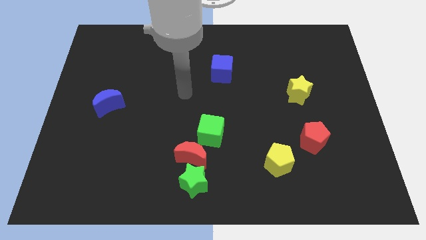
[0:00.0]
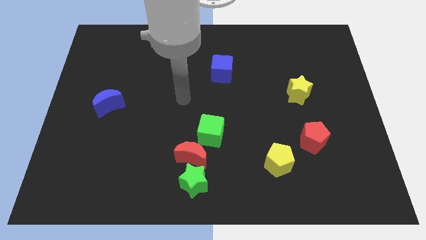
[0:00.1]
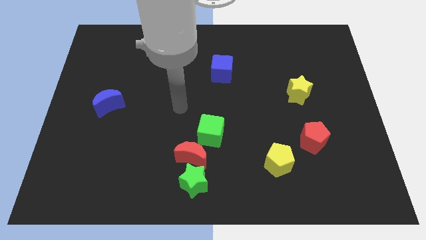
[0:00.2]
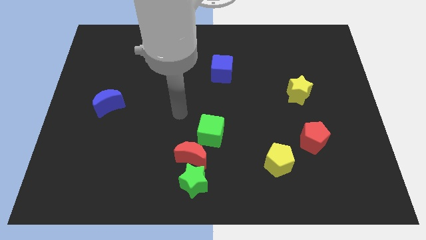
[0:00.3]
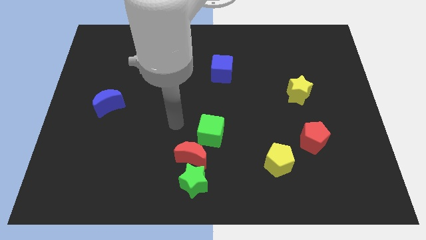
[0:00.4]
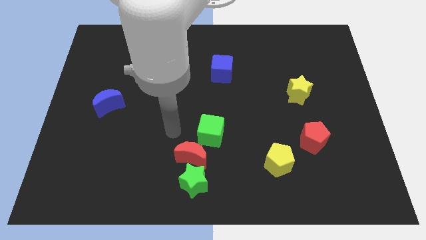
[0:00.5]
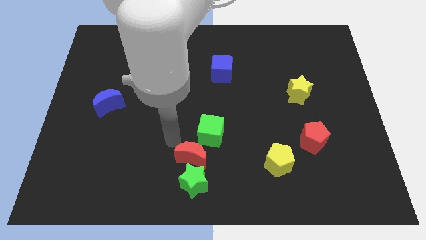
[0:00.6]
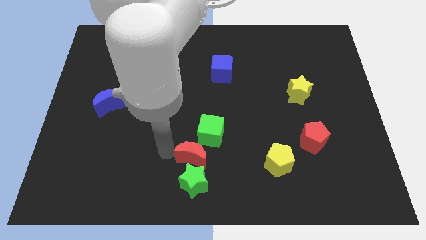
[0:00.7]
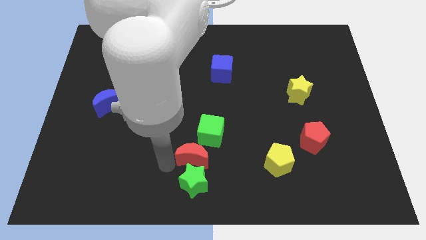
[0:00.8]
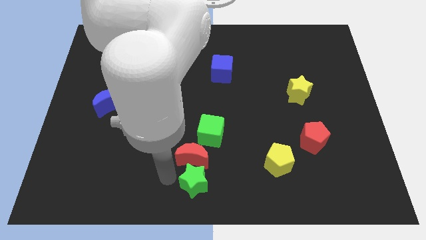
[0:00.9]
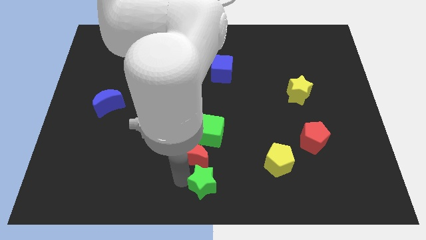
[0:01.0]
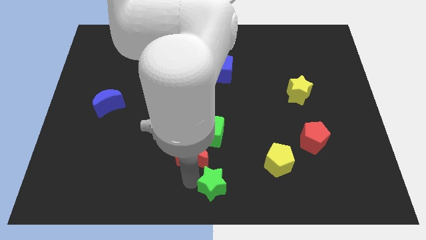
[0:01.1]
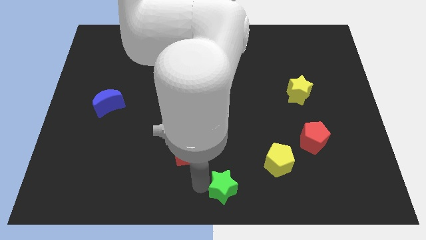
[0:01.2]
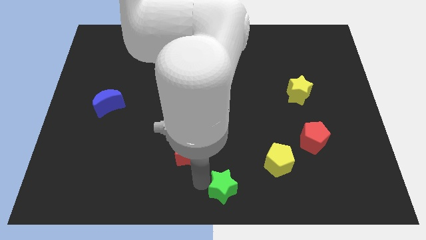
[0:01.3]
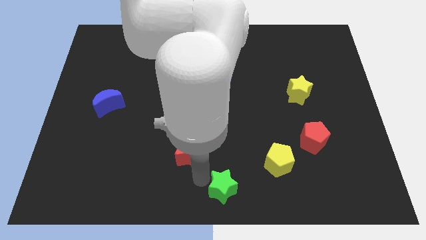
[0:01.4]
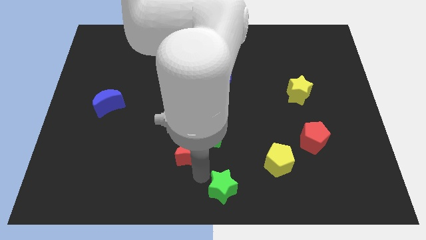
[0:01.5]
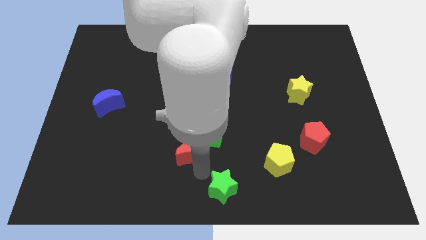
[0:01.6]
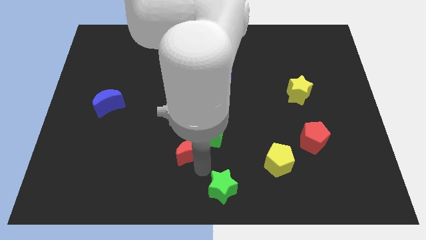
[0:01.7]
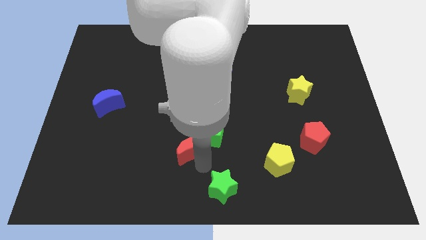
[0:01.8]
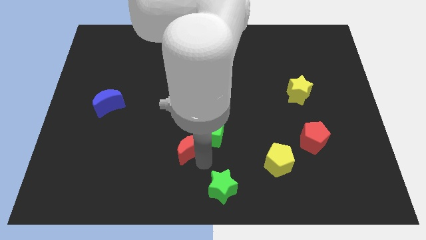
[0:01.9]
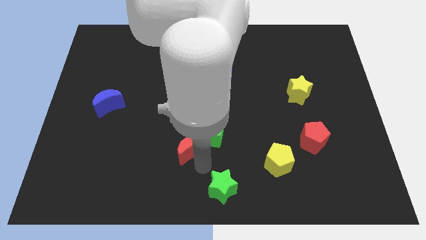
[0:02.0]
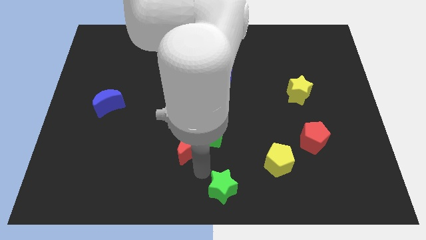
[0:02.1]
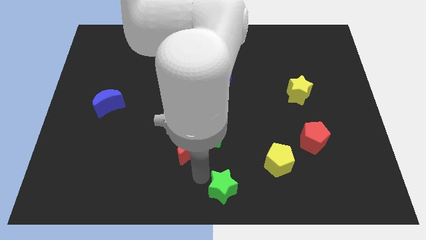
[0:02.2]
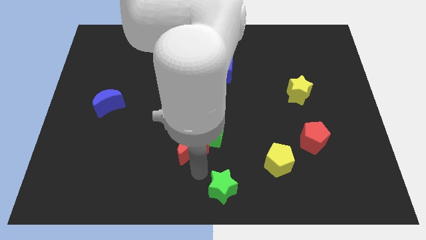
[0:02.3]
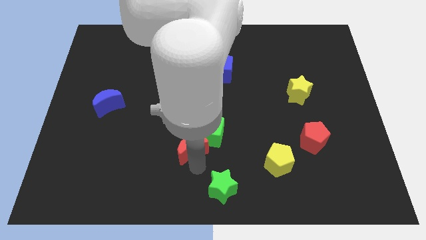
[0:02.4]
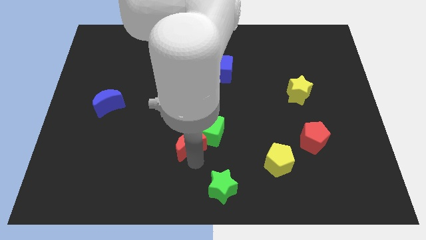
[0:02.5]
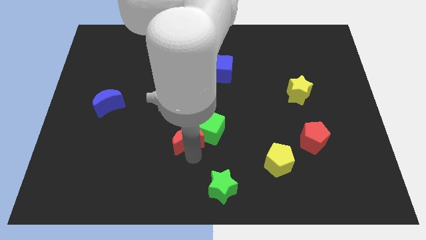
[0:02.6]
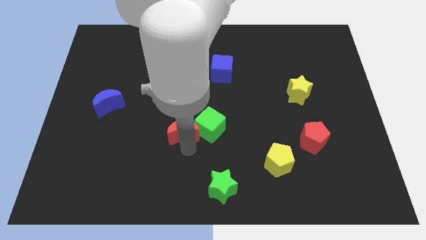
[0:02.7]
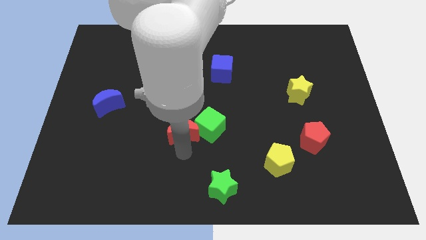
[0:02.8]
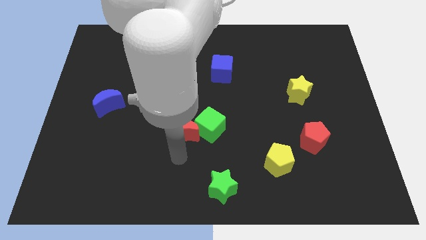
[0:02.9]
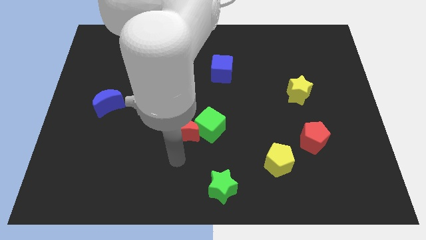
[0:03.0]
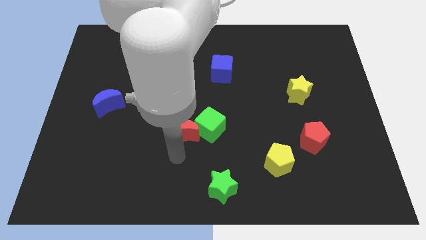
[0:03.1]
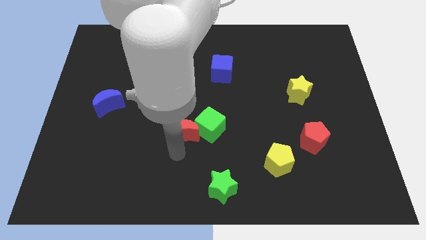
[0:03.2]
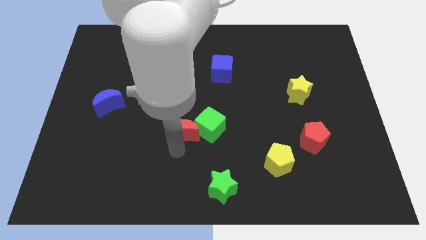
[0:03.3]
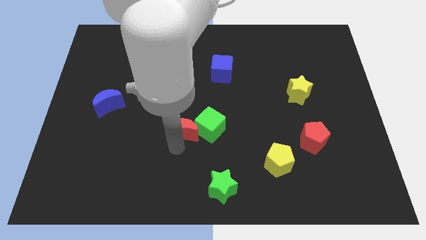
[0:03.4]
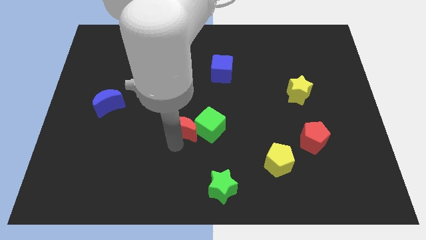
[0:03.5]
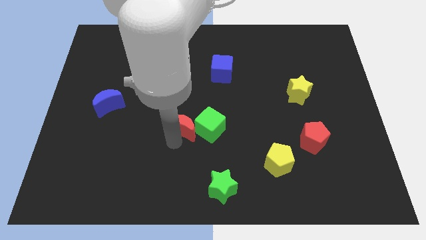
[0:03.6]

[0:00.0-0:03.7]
slightly move the red moon up

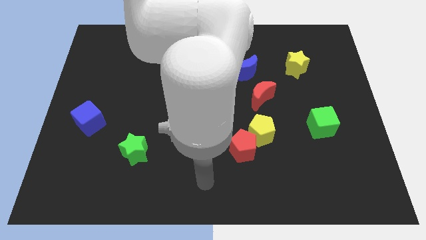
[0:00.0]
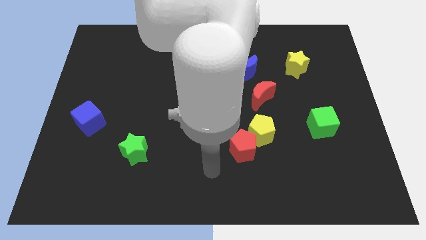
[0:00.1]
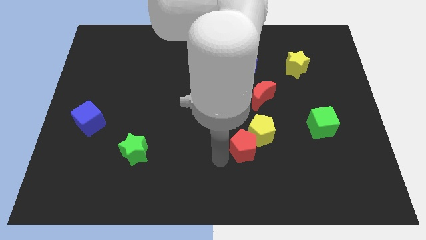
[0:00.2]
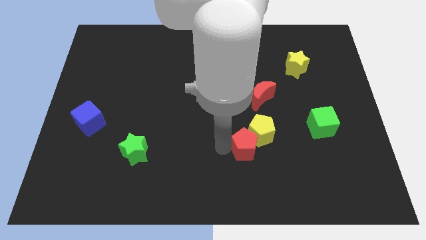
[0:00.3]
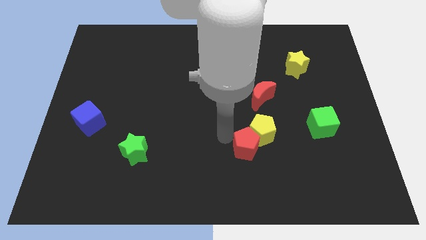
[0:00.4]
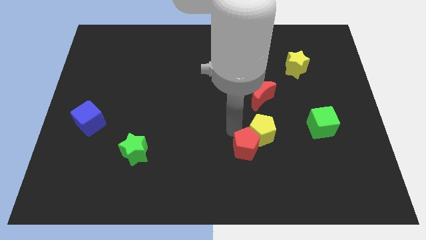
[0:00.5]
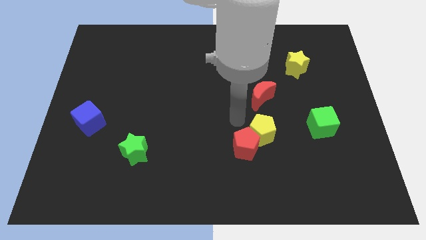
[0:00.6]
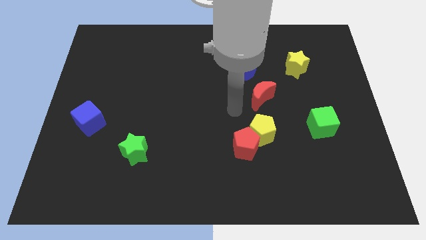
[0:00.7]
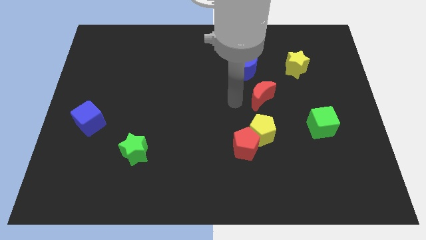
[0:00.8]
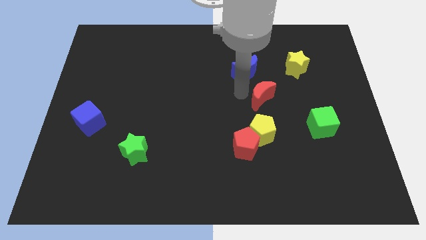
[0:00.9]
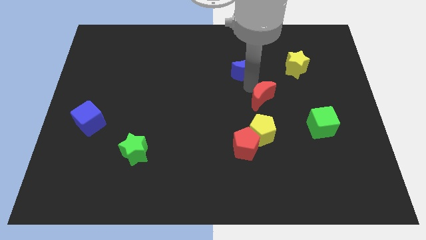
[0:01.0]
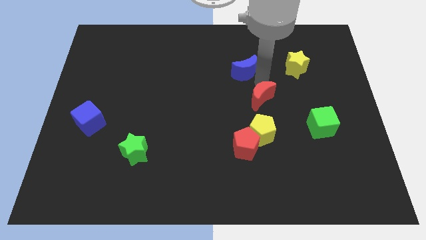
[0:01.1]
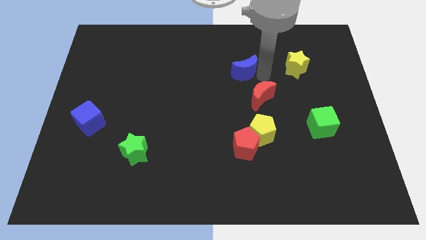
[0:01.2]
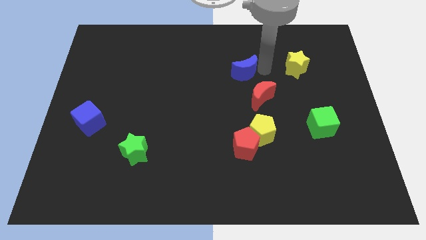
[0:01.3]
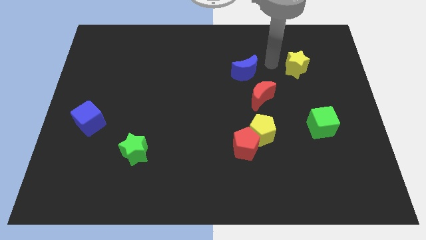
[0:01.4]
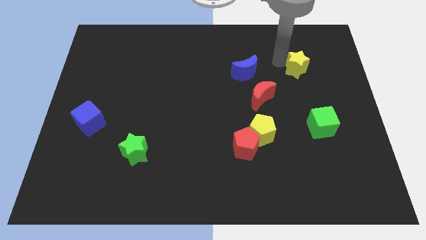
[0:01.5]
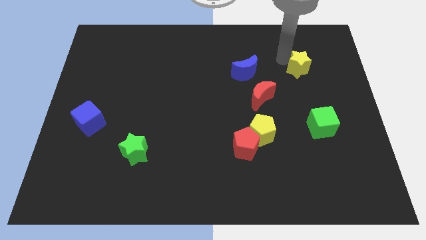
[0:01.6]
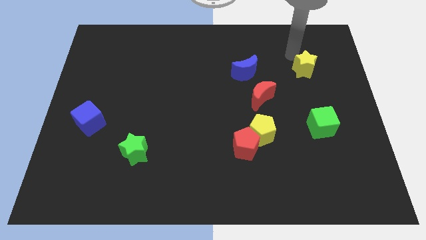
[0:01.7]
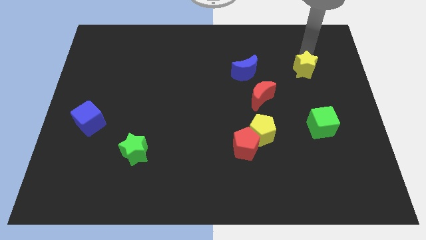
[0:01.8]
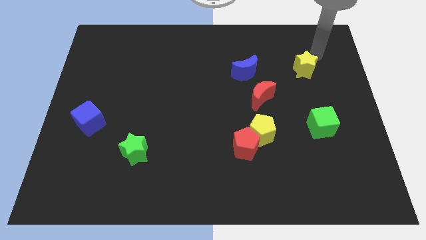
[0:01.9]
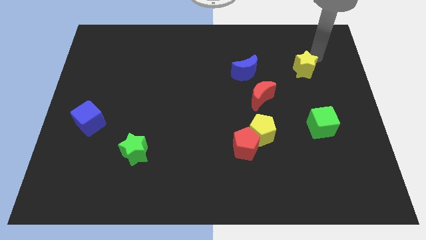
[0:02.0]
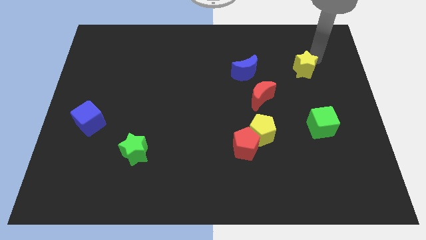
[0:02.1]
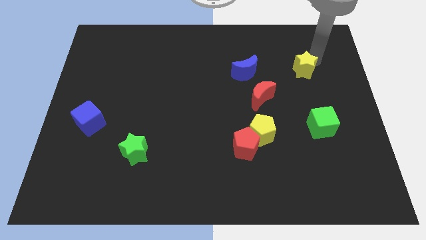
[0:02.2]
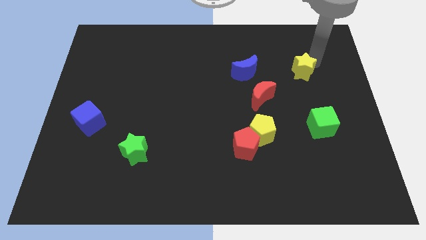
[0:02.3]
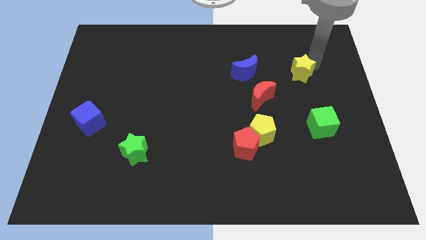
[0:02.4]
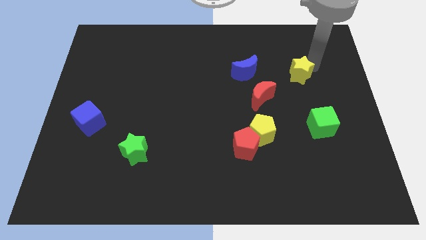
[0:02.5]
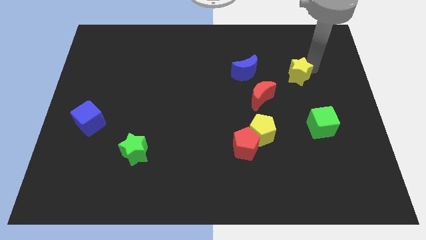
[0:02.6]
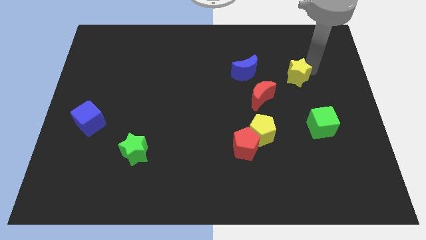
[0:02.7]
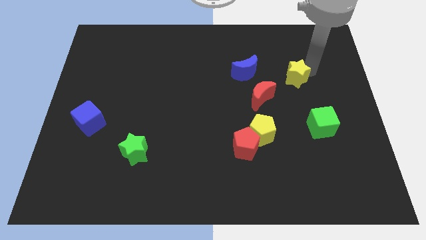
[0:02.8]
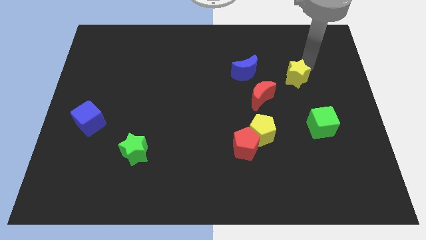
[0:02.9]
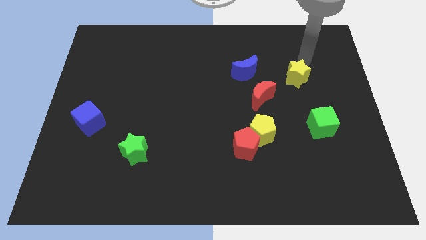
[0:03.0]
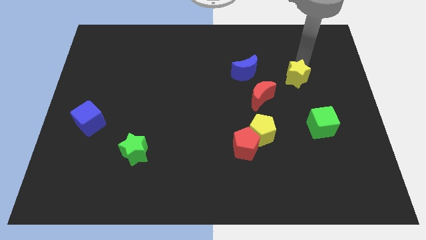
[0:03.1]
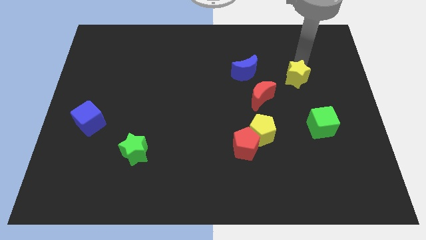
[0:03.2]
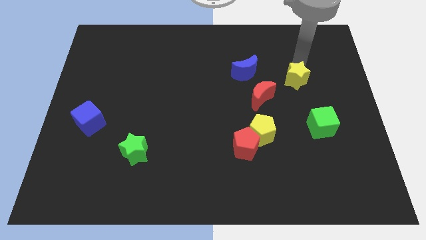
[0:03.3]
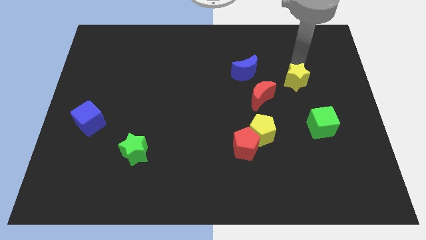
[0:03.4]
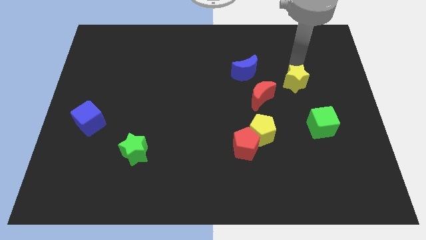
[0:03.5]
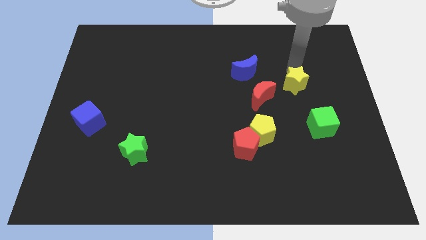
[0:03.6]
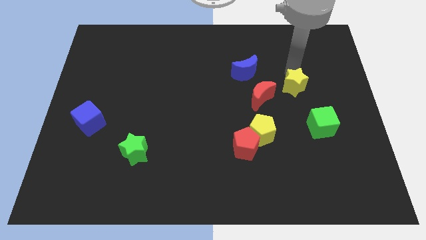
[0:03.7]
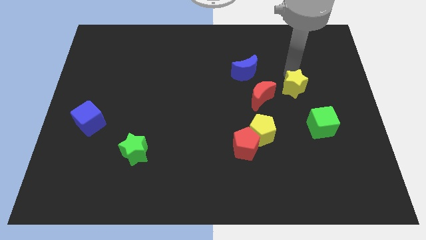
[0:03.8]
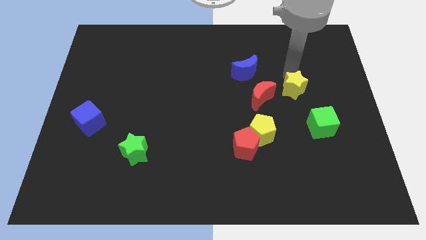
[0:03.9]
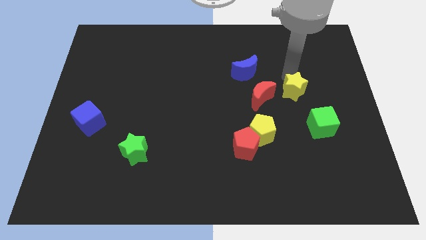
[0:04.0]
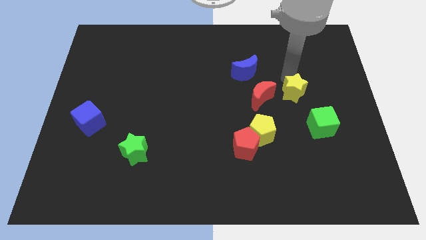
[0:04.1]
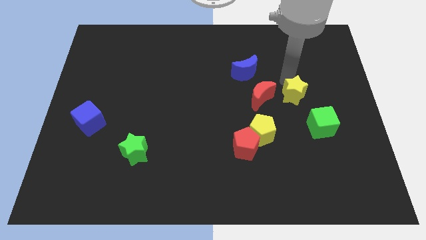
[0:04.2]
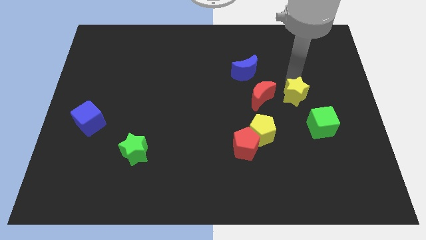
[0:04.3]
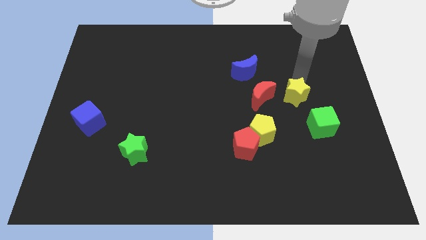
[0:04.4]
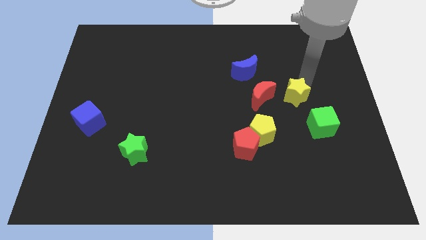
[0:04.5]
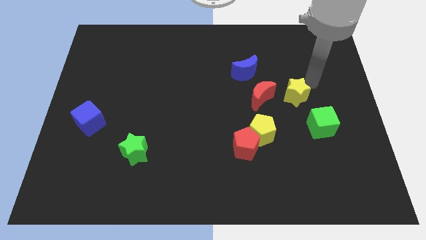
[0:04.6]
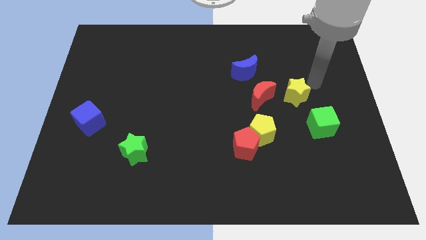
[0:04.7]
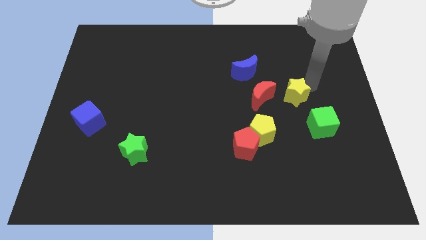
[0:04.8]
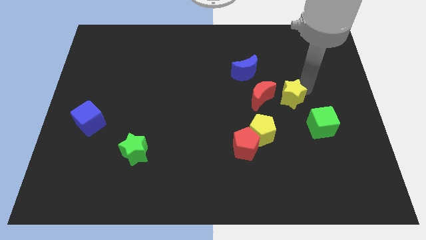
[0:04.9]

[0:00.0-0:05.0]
slide the yellow star downwards and to the left diagonally slightly
